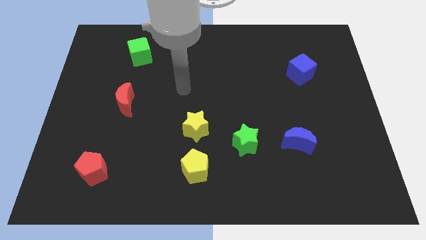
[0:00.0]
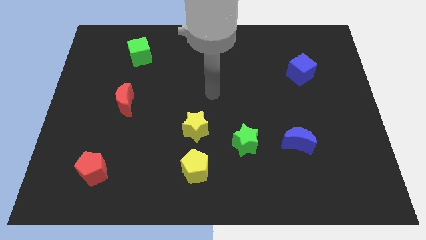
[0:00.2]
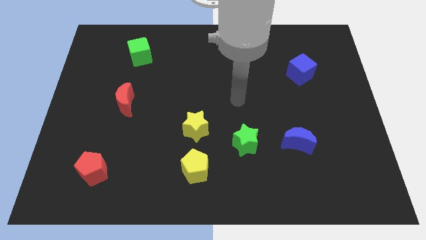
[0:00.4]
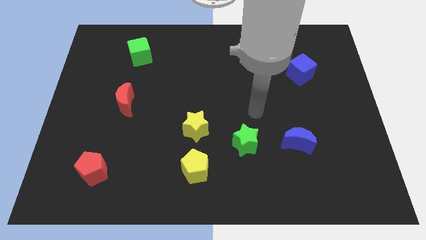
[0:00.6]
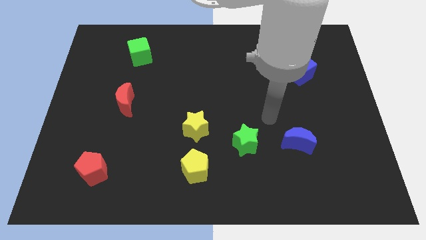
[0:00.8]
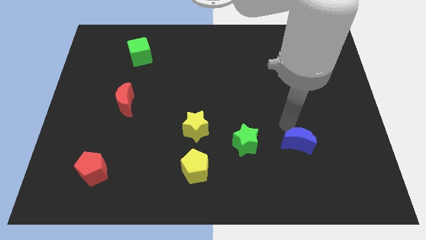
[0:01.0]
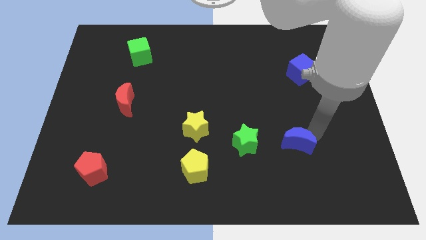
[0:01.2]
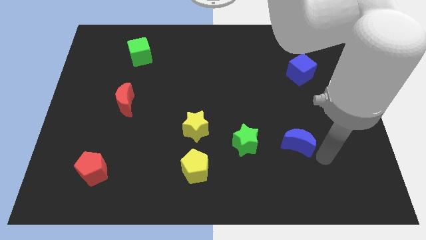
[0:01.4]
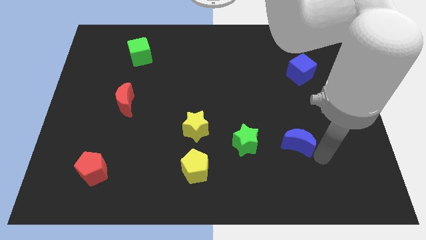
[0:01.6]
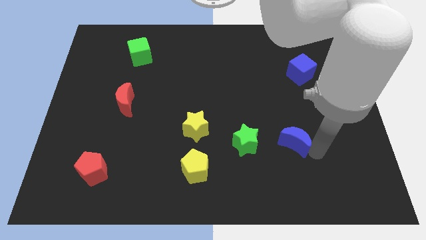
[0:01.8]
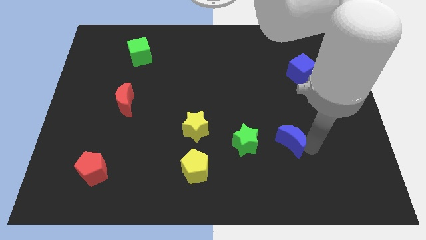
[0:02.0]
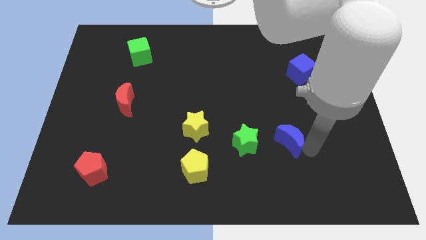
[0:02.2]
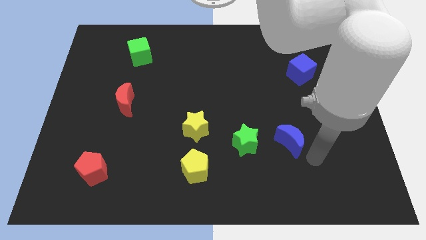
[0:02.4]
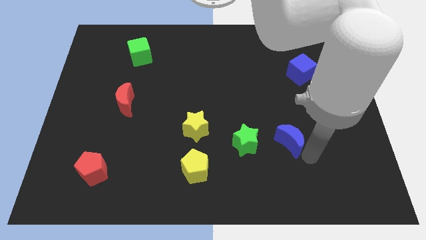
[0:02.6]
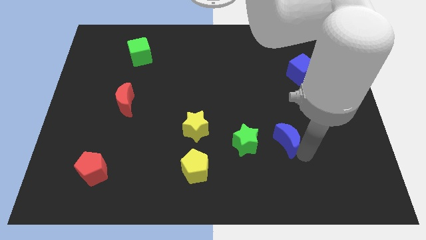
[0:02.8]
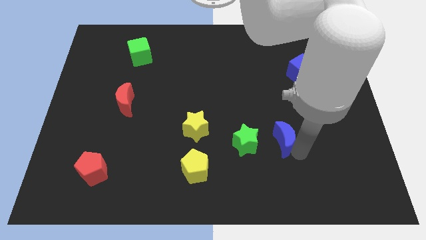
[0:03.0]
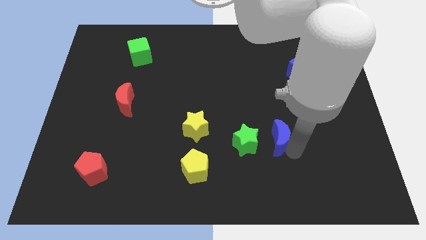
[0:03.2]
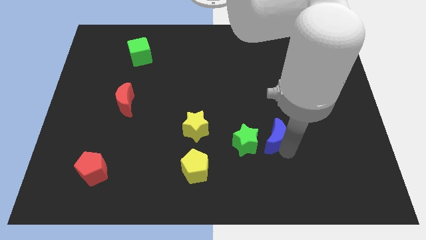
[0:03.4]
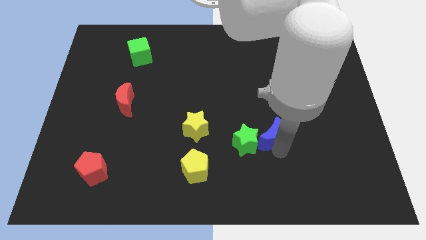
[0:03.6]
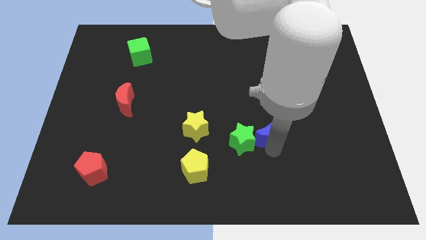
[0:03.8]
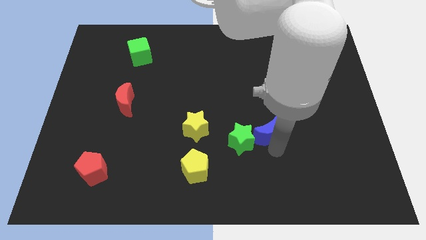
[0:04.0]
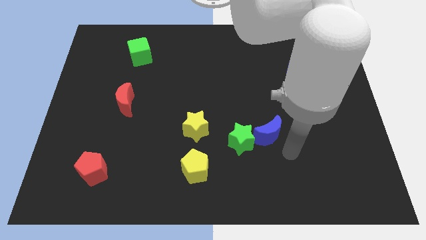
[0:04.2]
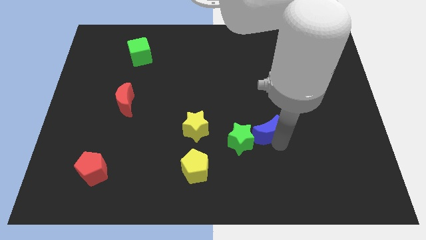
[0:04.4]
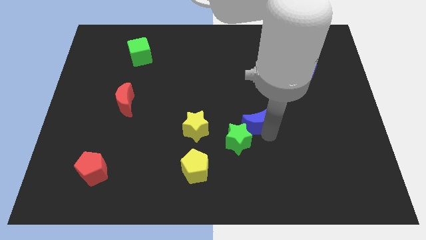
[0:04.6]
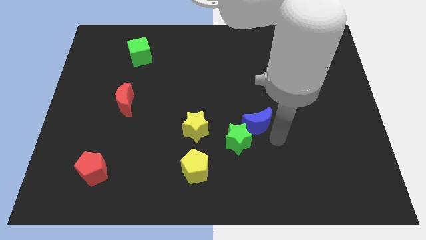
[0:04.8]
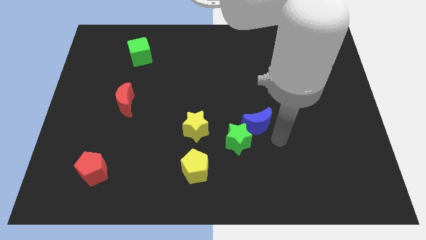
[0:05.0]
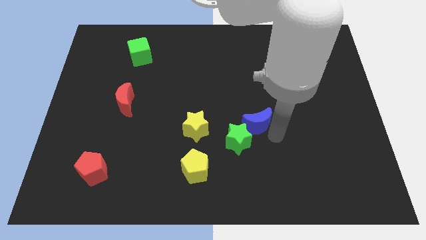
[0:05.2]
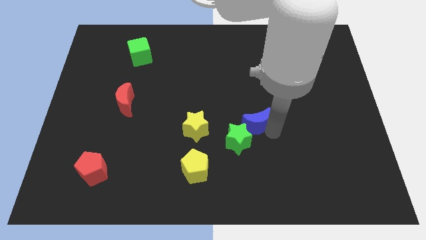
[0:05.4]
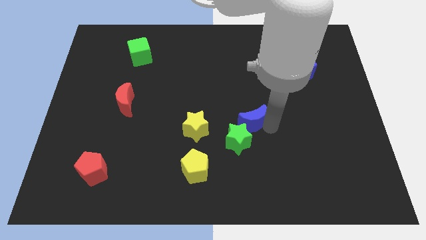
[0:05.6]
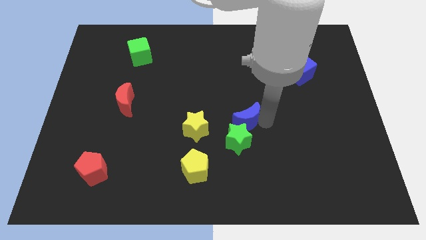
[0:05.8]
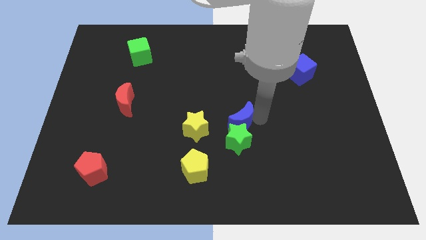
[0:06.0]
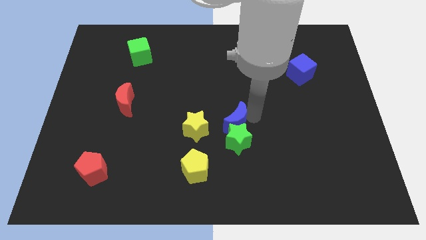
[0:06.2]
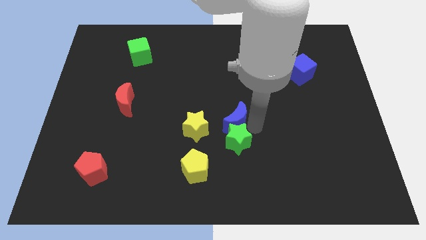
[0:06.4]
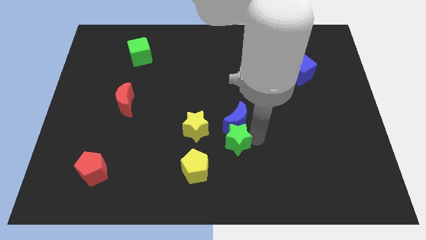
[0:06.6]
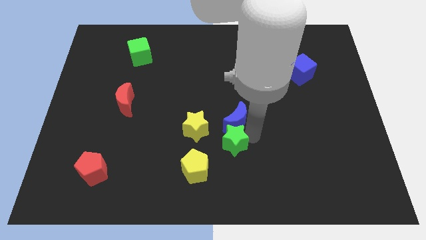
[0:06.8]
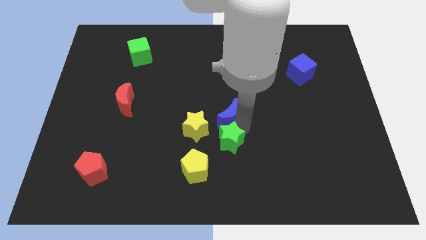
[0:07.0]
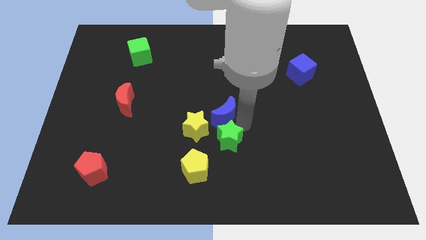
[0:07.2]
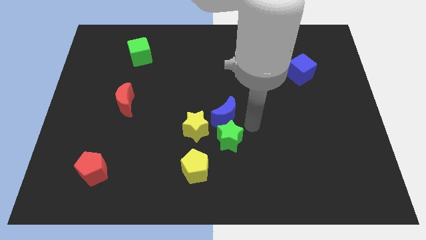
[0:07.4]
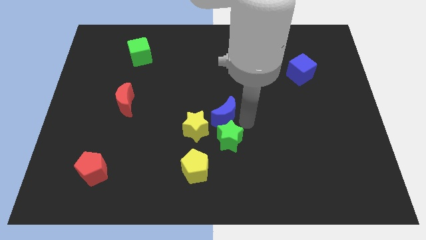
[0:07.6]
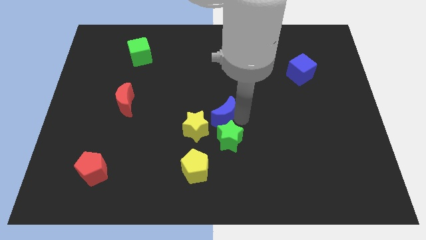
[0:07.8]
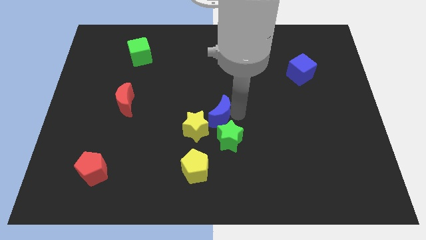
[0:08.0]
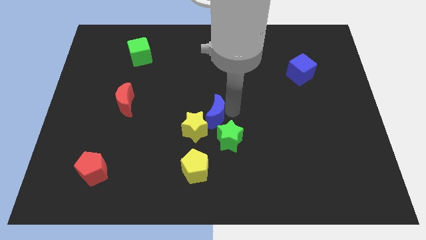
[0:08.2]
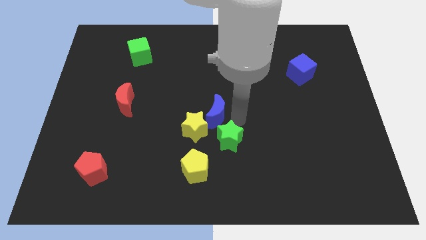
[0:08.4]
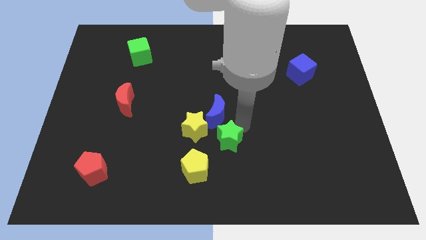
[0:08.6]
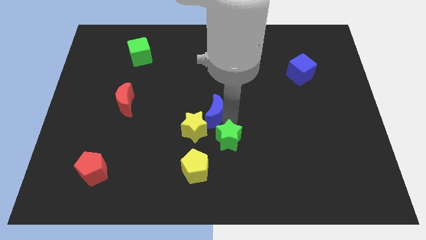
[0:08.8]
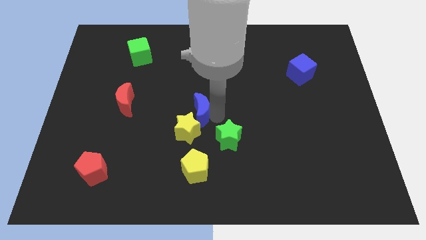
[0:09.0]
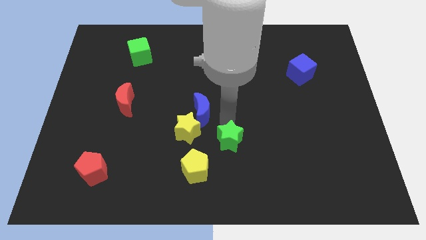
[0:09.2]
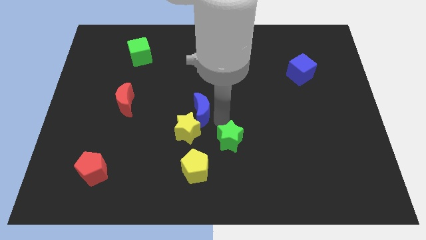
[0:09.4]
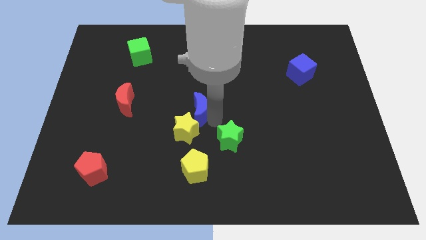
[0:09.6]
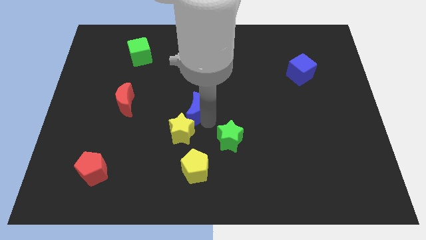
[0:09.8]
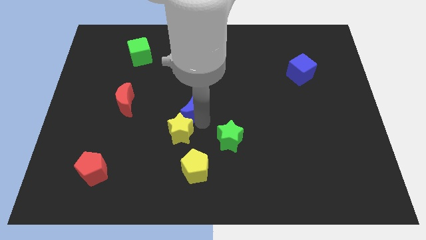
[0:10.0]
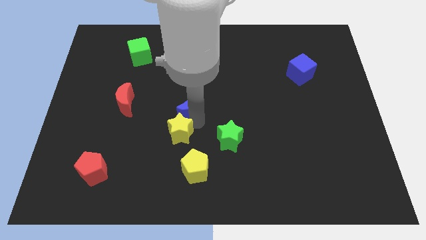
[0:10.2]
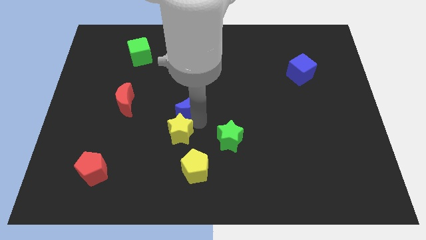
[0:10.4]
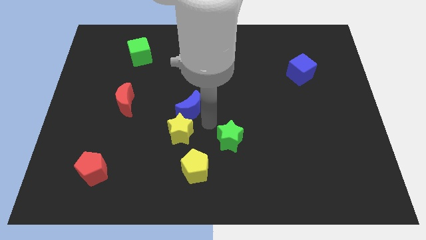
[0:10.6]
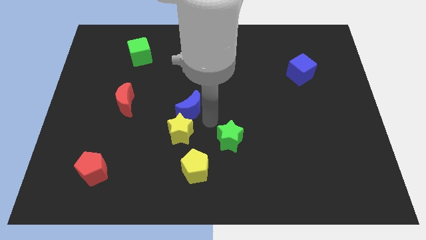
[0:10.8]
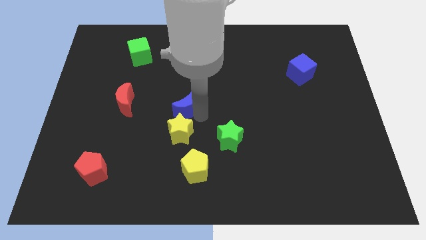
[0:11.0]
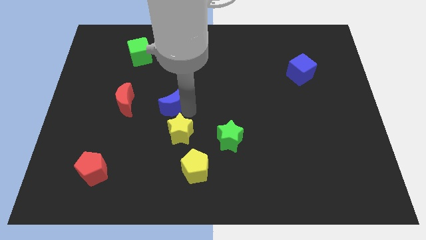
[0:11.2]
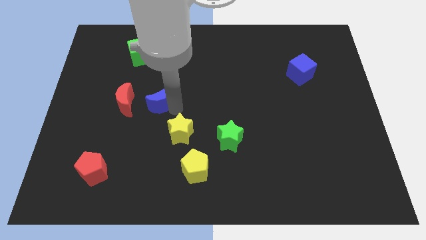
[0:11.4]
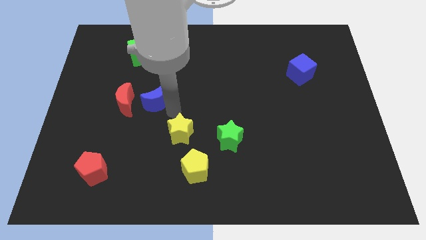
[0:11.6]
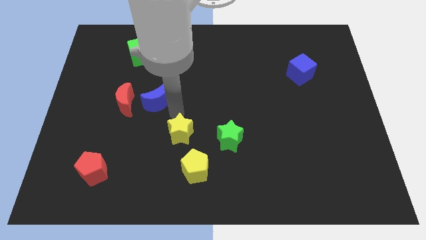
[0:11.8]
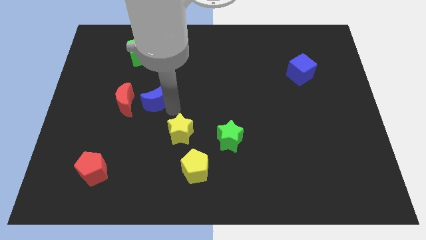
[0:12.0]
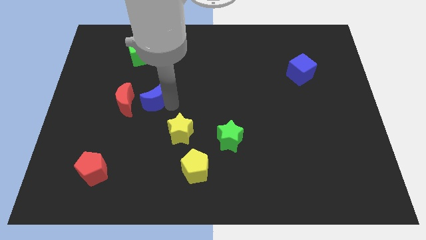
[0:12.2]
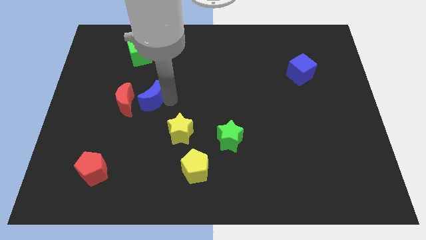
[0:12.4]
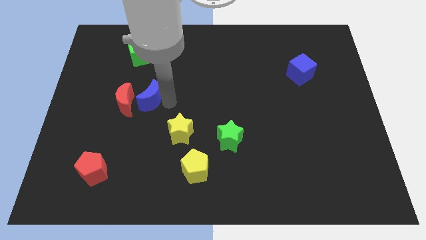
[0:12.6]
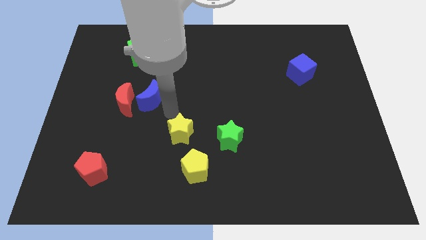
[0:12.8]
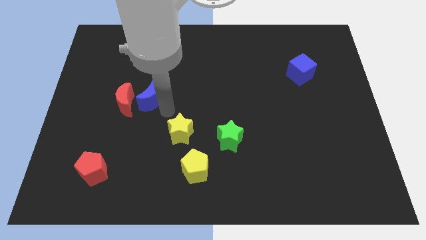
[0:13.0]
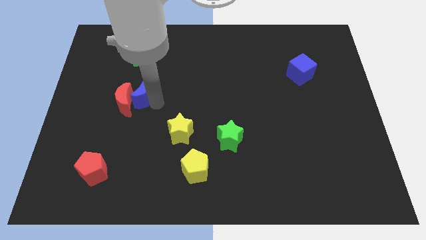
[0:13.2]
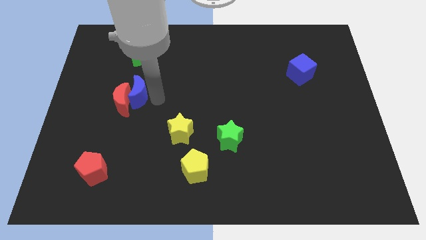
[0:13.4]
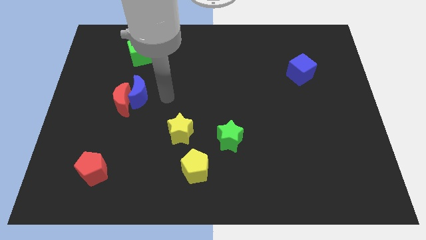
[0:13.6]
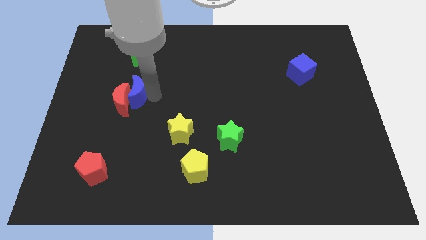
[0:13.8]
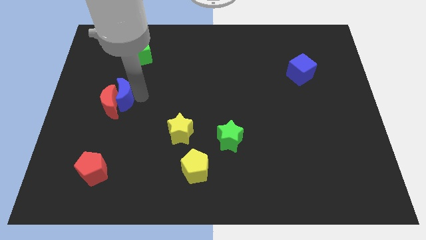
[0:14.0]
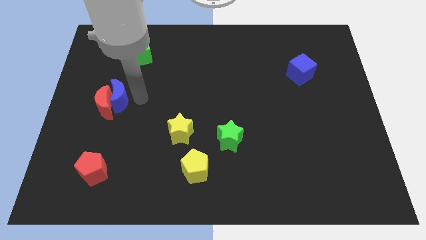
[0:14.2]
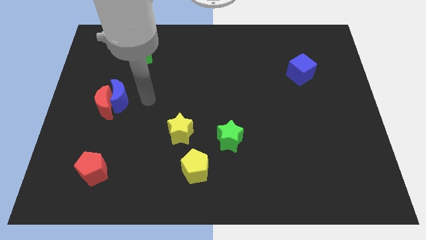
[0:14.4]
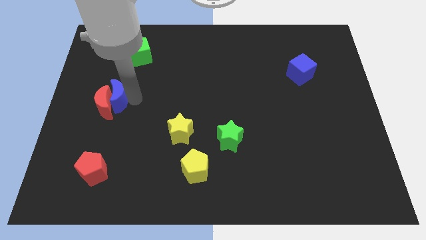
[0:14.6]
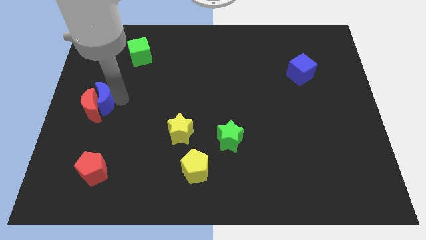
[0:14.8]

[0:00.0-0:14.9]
slide the blue moon to the center left
